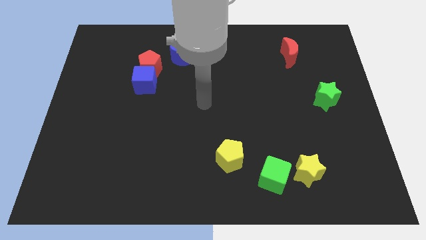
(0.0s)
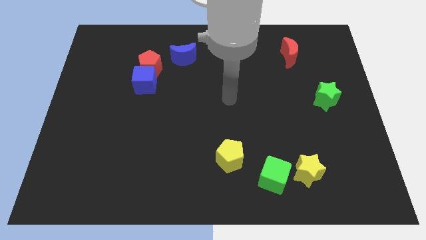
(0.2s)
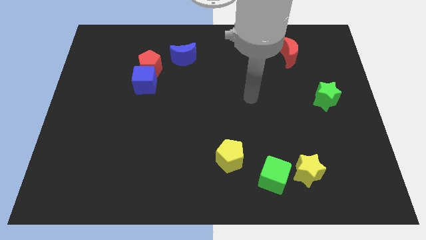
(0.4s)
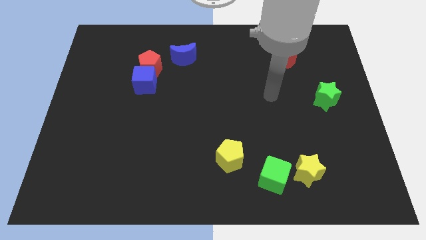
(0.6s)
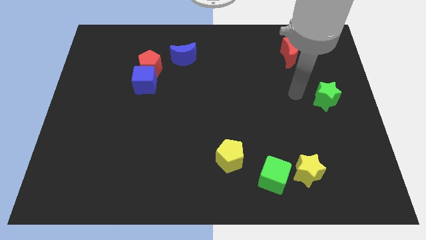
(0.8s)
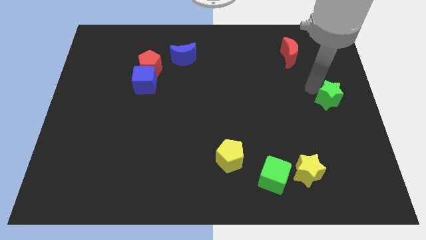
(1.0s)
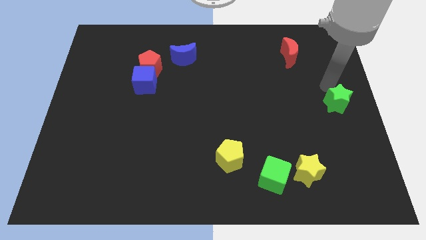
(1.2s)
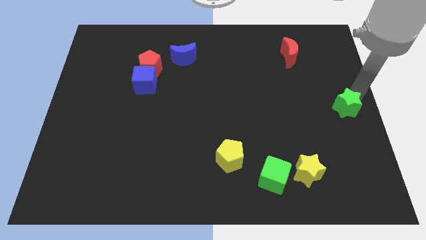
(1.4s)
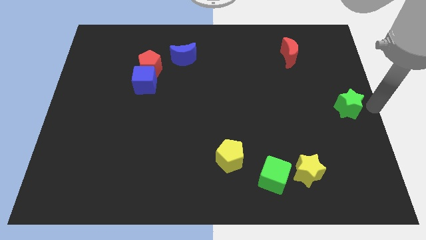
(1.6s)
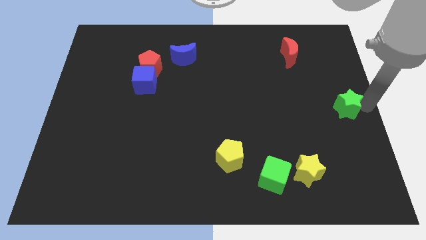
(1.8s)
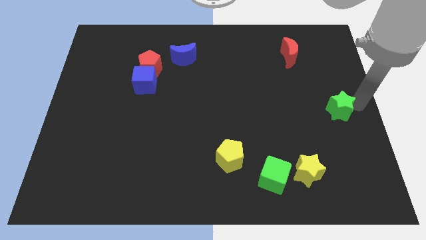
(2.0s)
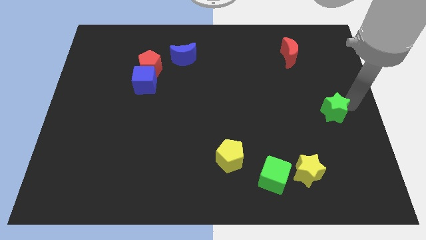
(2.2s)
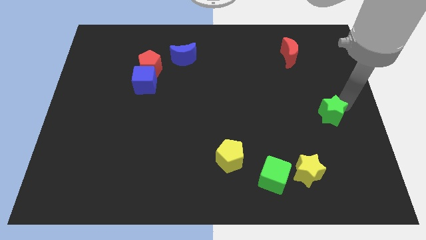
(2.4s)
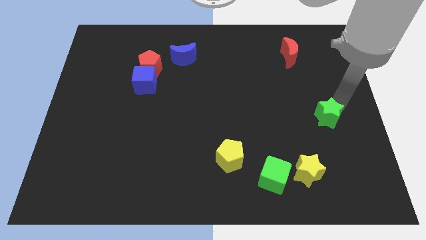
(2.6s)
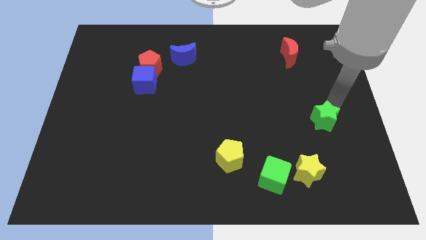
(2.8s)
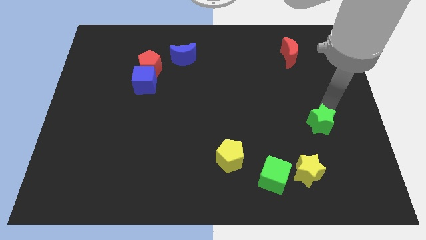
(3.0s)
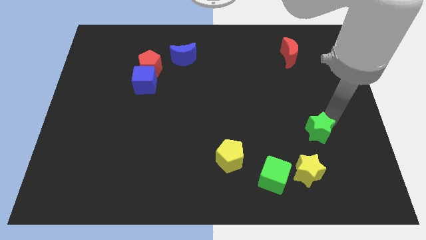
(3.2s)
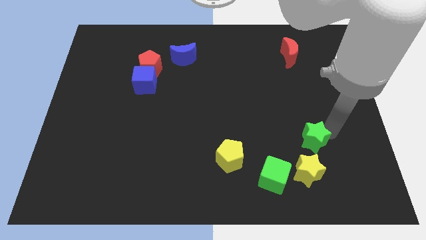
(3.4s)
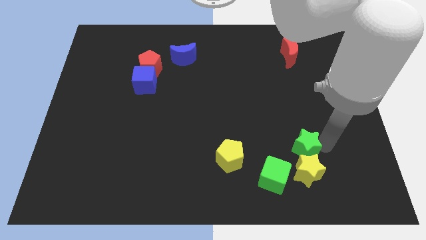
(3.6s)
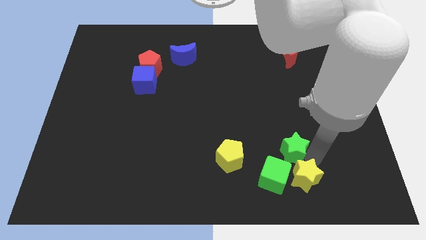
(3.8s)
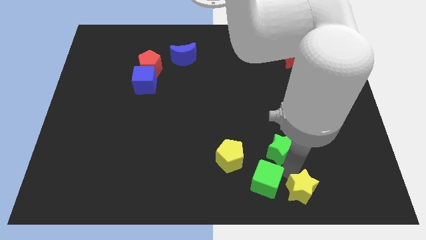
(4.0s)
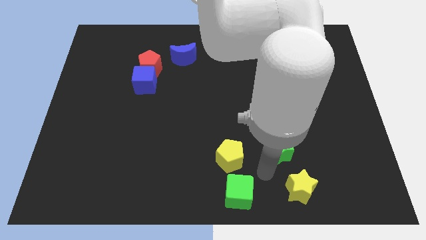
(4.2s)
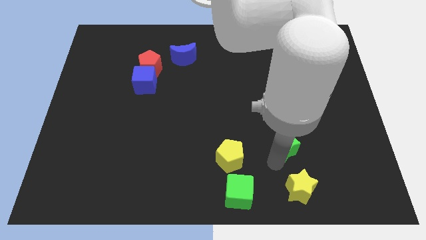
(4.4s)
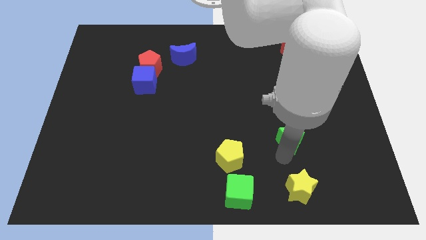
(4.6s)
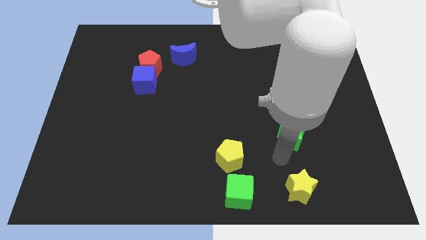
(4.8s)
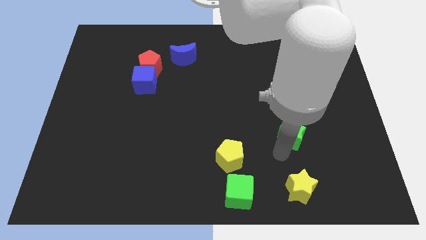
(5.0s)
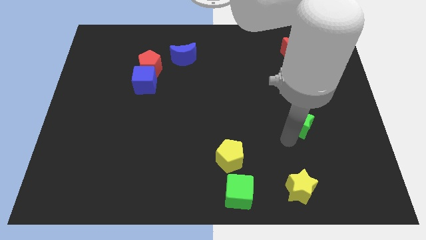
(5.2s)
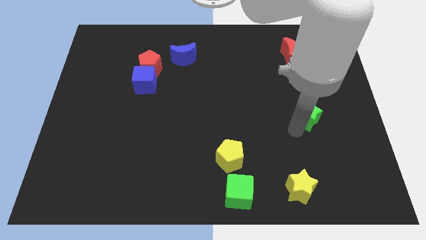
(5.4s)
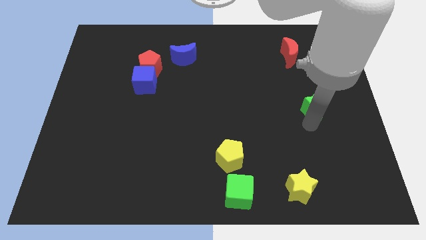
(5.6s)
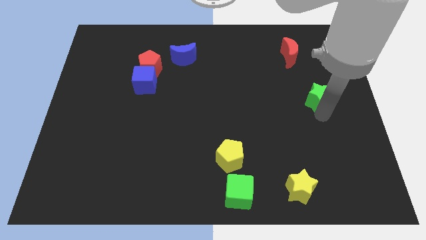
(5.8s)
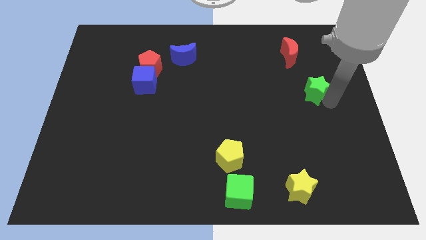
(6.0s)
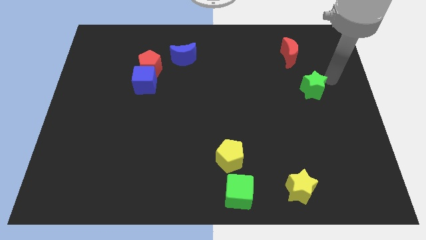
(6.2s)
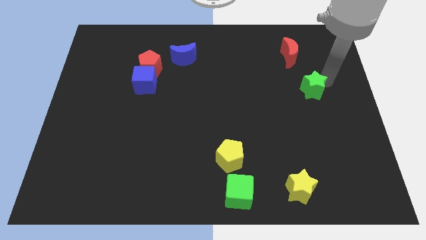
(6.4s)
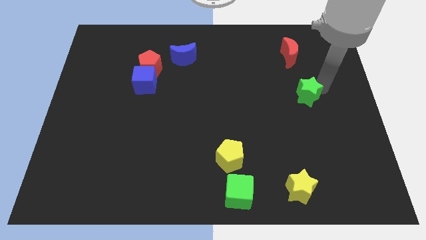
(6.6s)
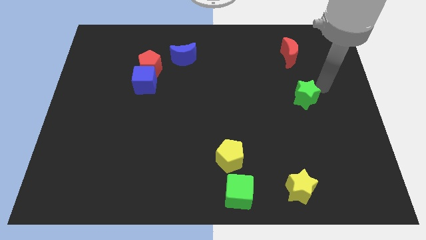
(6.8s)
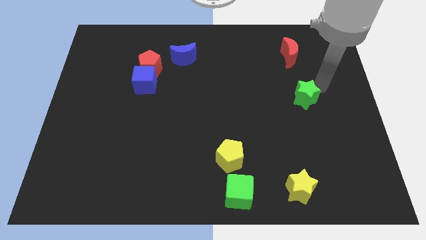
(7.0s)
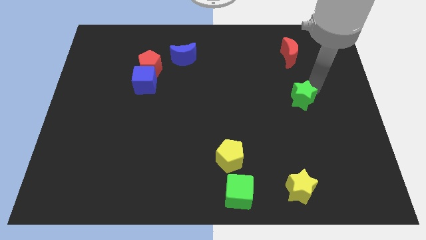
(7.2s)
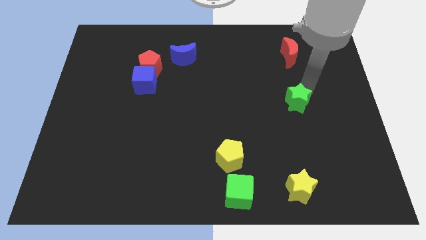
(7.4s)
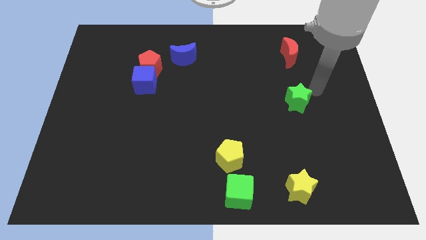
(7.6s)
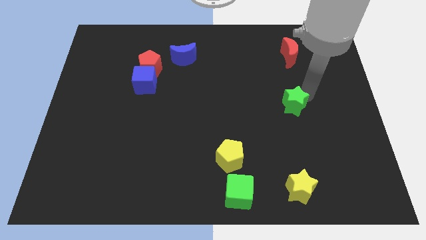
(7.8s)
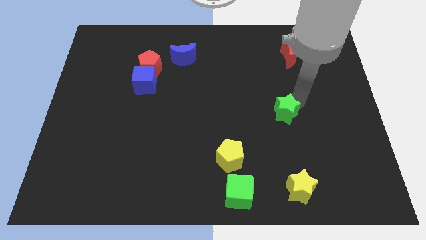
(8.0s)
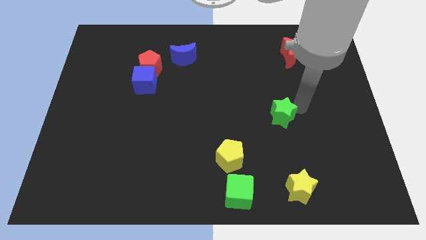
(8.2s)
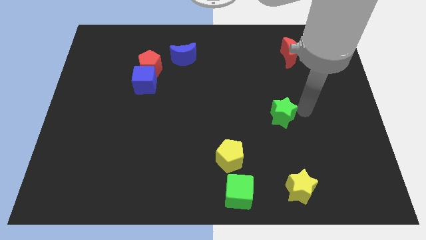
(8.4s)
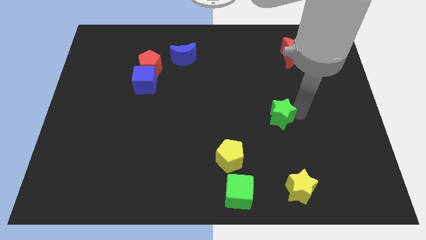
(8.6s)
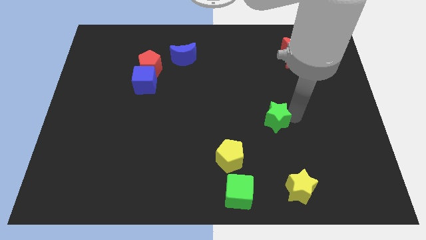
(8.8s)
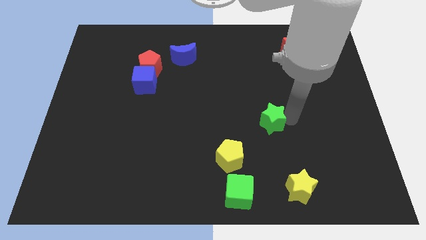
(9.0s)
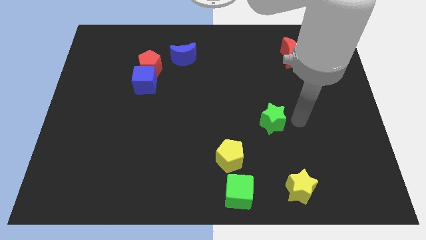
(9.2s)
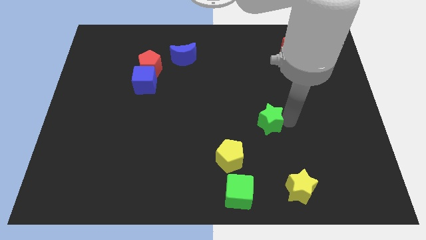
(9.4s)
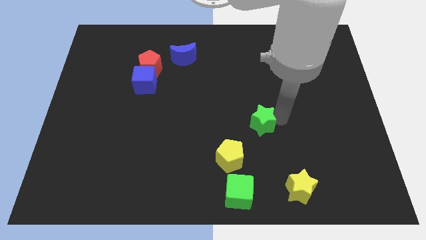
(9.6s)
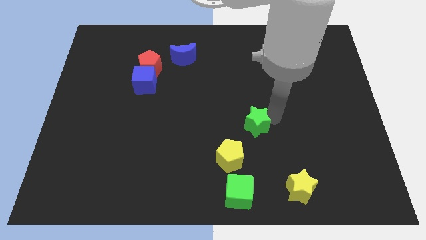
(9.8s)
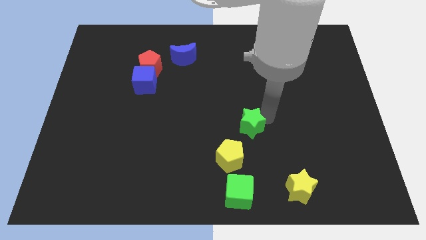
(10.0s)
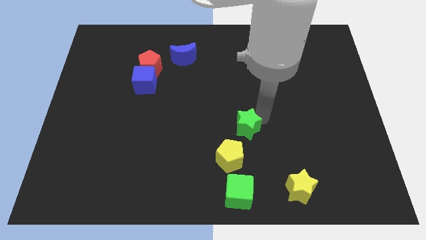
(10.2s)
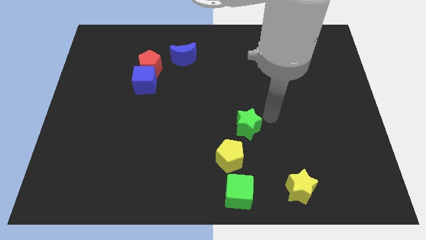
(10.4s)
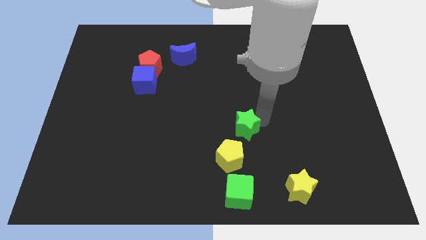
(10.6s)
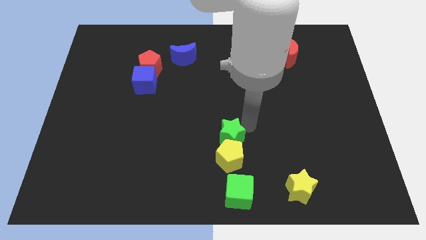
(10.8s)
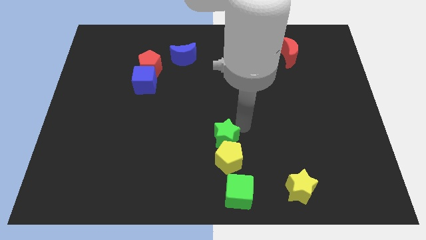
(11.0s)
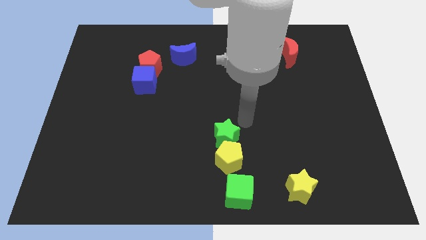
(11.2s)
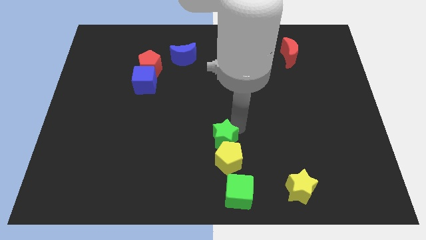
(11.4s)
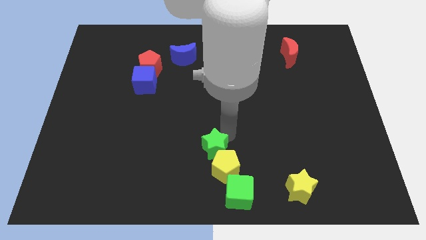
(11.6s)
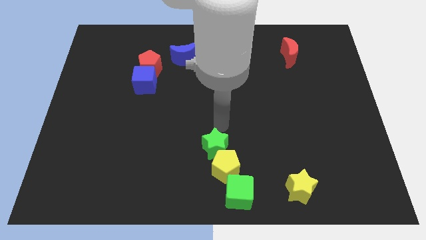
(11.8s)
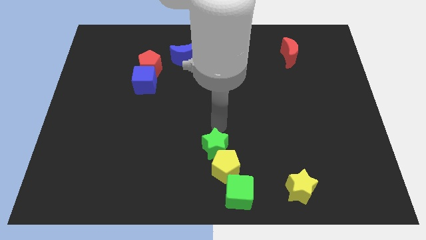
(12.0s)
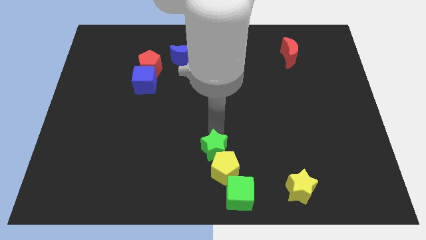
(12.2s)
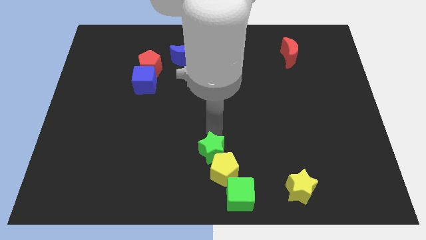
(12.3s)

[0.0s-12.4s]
put the green star to the bottom
